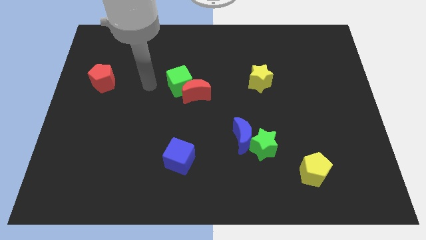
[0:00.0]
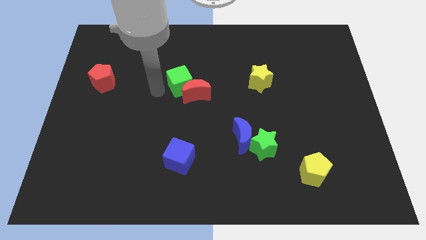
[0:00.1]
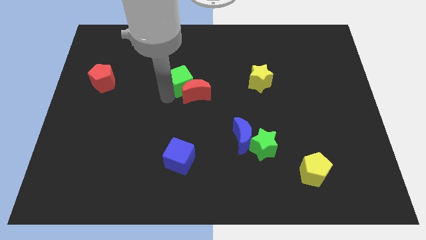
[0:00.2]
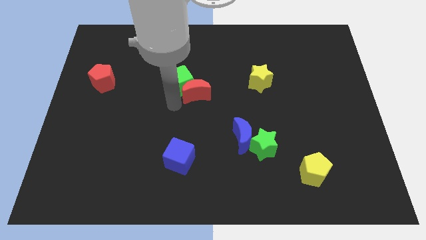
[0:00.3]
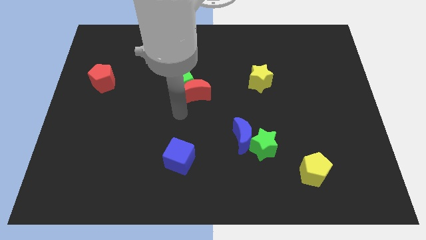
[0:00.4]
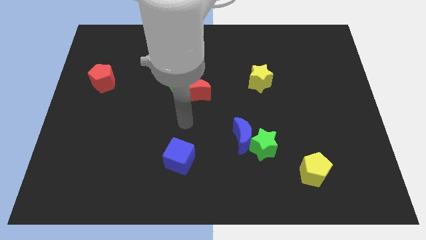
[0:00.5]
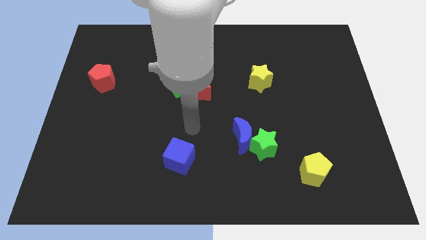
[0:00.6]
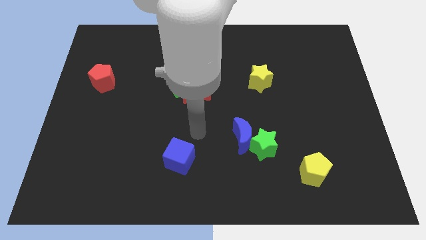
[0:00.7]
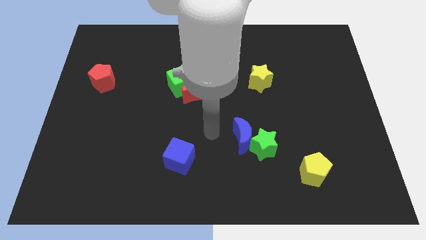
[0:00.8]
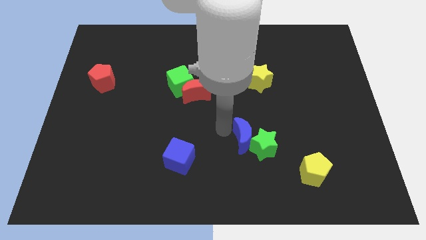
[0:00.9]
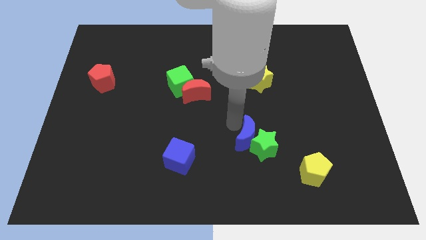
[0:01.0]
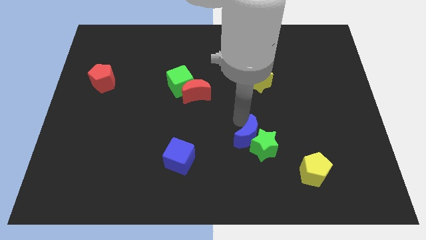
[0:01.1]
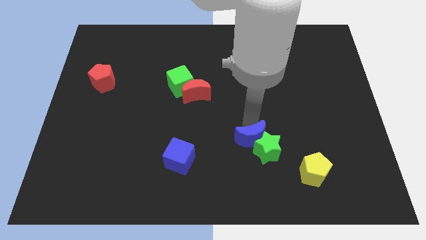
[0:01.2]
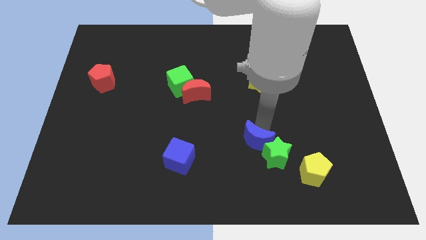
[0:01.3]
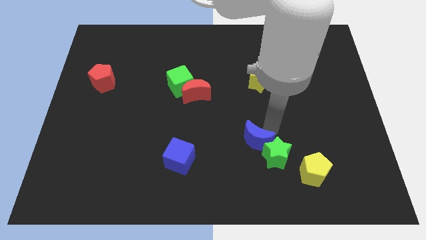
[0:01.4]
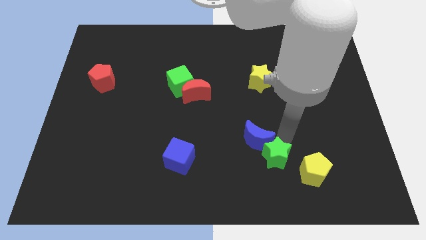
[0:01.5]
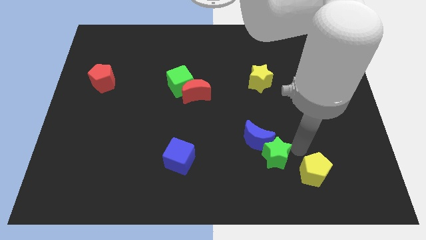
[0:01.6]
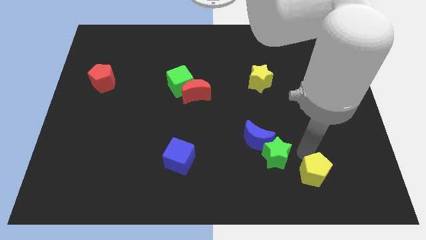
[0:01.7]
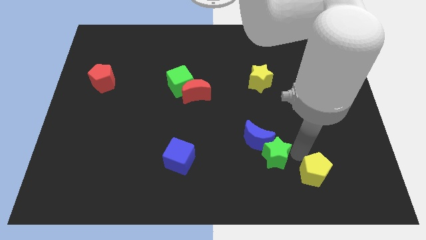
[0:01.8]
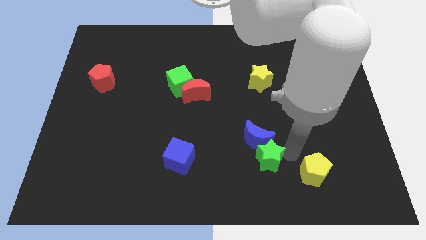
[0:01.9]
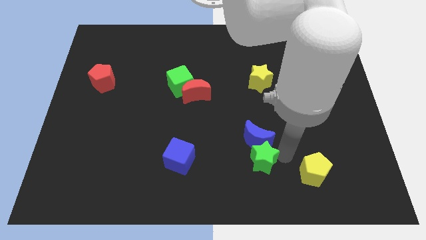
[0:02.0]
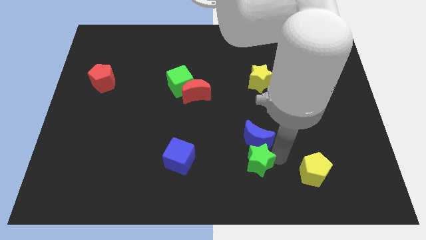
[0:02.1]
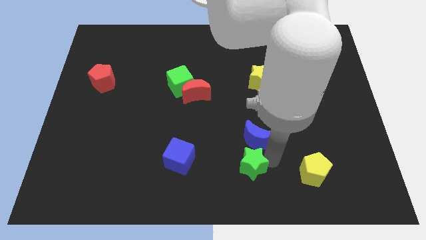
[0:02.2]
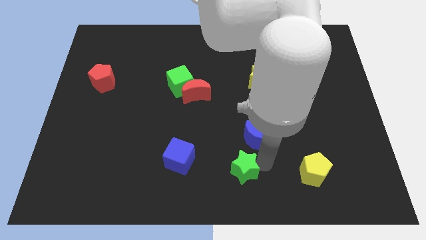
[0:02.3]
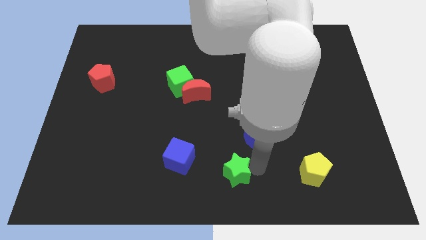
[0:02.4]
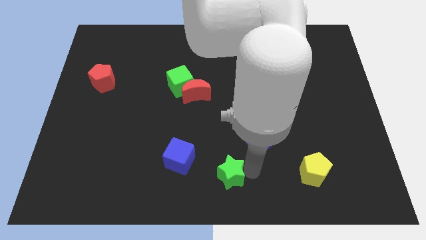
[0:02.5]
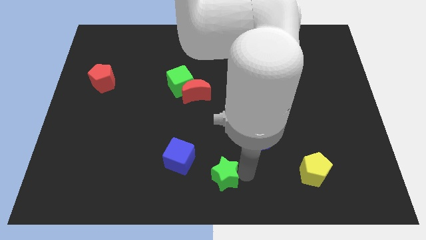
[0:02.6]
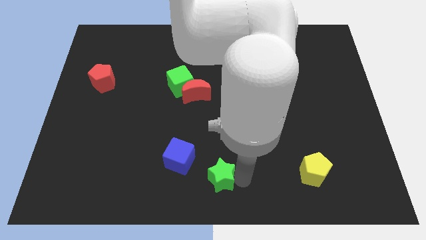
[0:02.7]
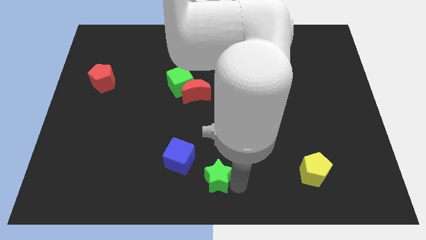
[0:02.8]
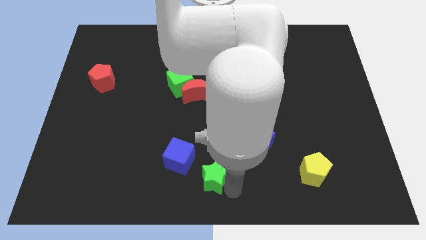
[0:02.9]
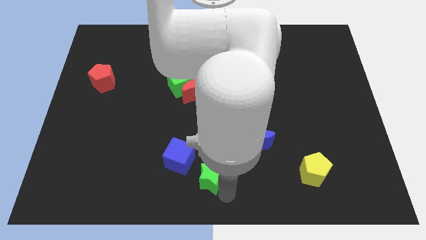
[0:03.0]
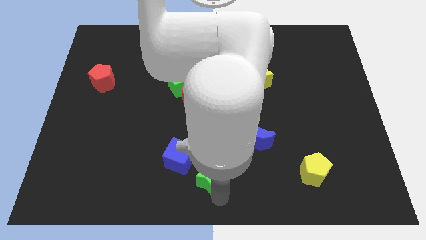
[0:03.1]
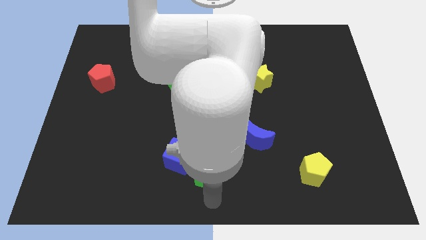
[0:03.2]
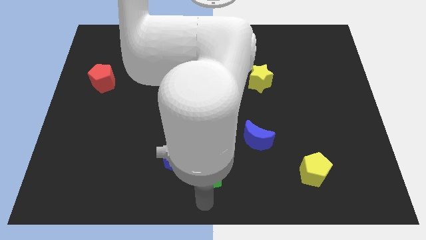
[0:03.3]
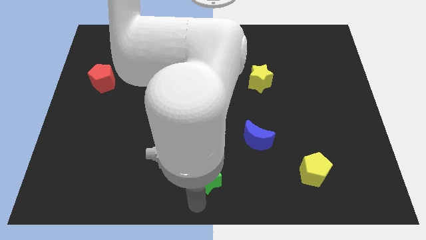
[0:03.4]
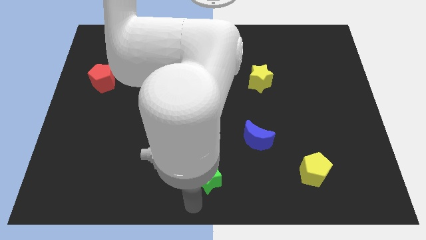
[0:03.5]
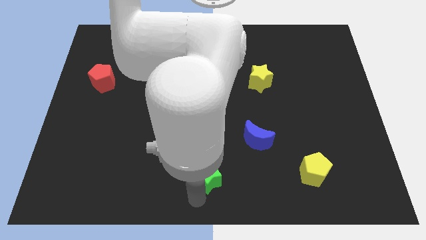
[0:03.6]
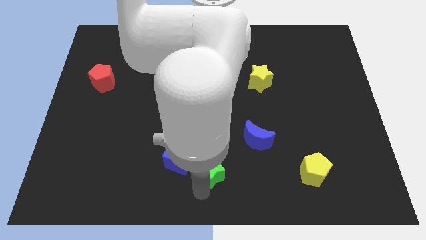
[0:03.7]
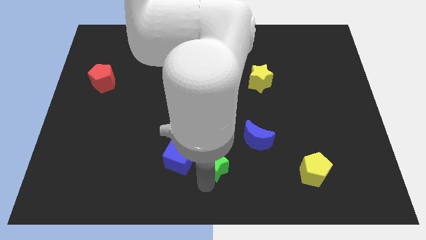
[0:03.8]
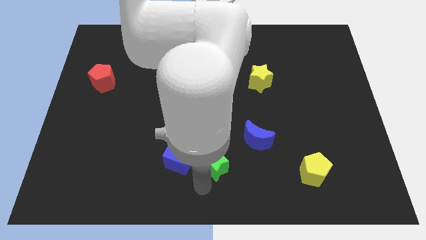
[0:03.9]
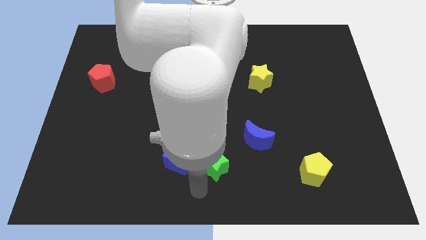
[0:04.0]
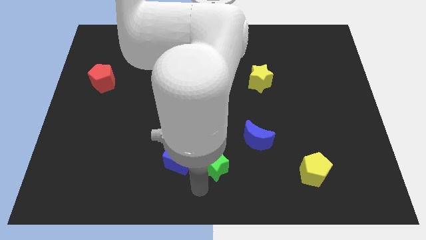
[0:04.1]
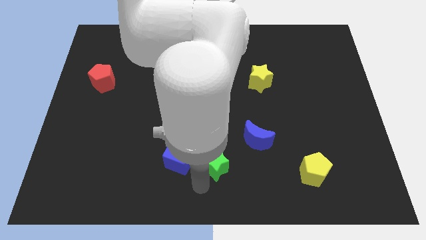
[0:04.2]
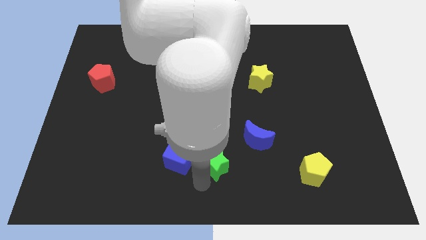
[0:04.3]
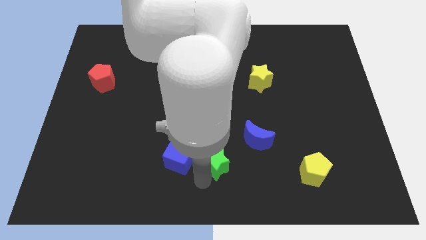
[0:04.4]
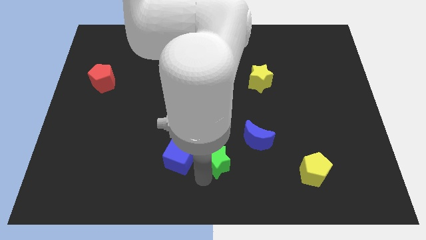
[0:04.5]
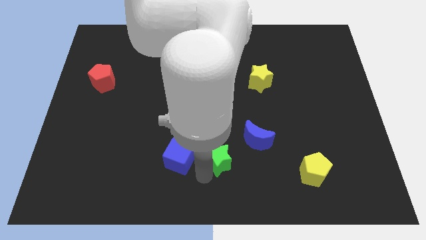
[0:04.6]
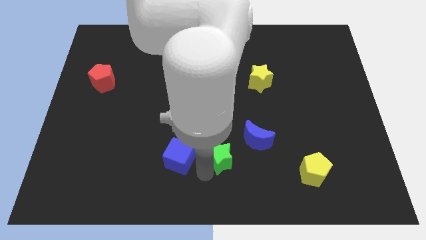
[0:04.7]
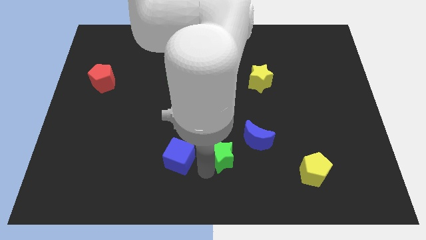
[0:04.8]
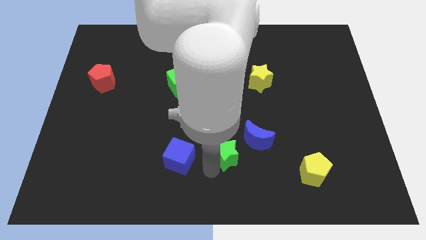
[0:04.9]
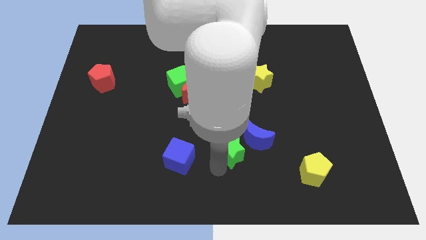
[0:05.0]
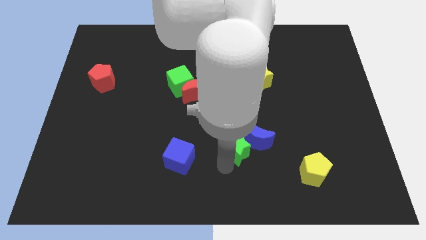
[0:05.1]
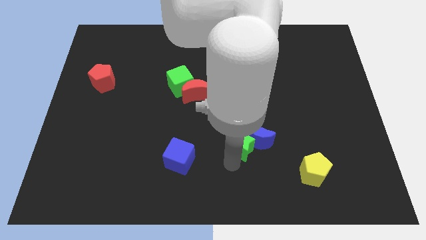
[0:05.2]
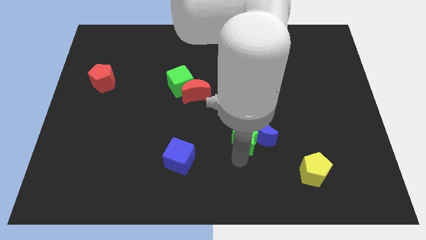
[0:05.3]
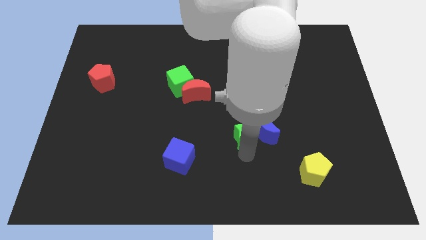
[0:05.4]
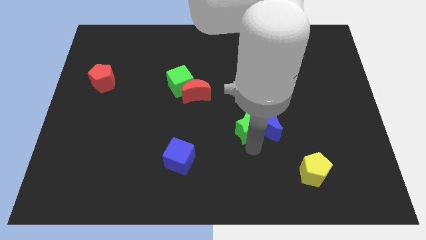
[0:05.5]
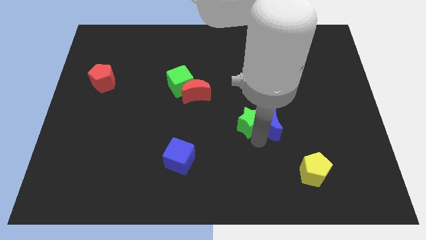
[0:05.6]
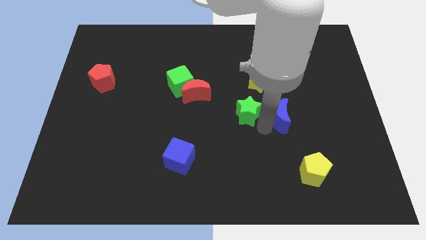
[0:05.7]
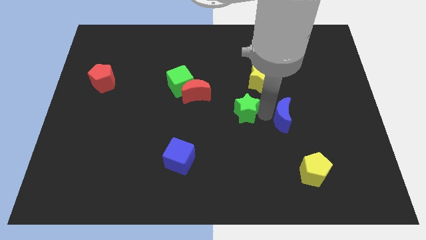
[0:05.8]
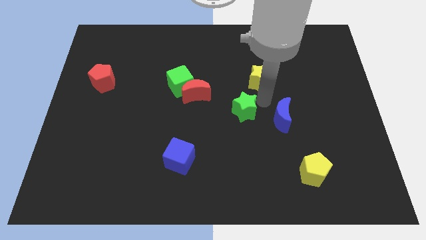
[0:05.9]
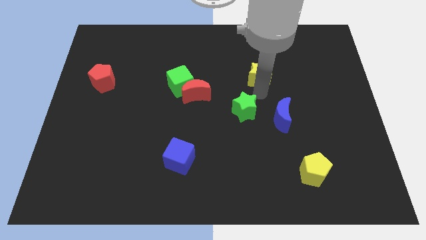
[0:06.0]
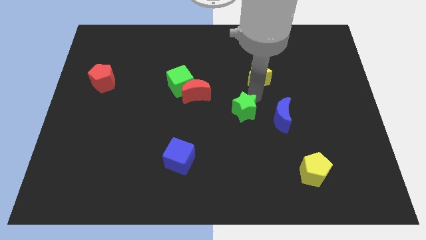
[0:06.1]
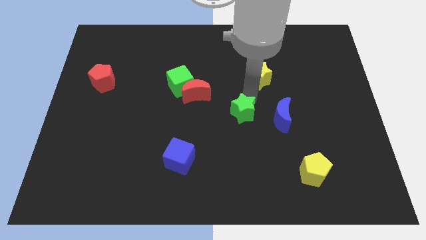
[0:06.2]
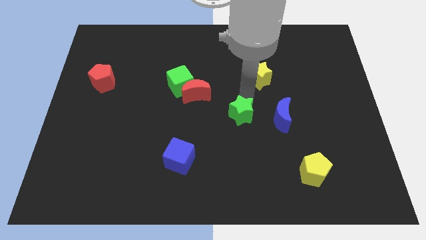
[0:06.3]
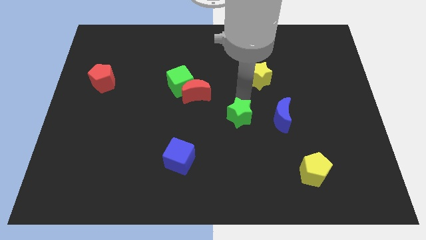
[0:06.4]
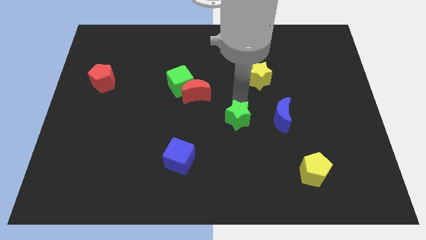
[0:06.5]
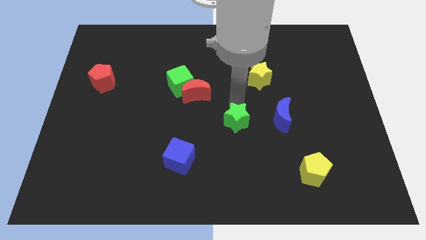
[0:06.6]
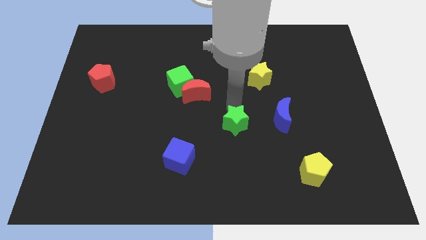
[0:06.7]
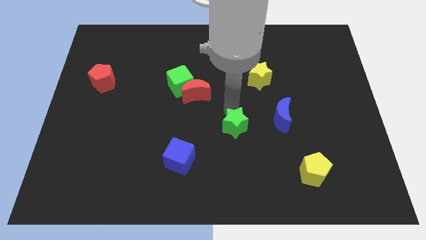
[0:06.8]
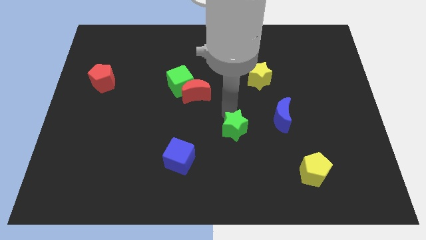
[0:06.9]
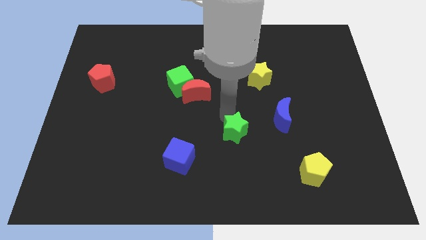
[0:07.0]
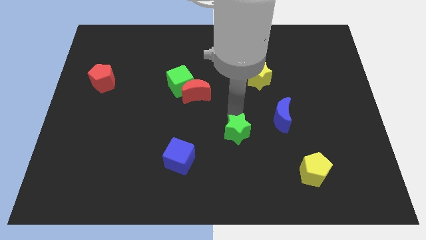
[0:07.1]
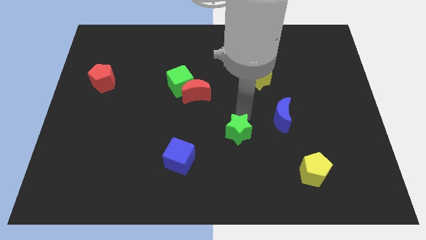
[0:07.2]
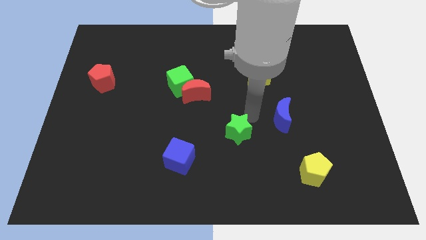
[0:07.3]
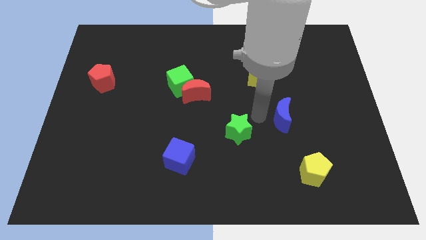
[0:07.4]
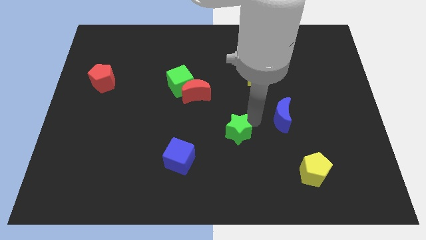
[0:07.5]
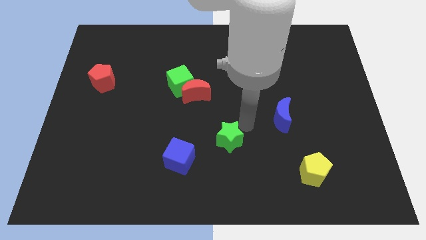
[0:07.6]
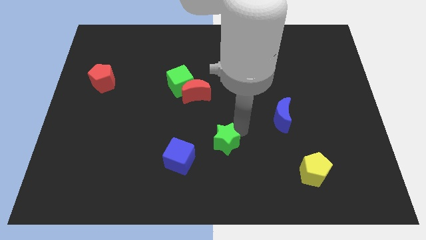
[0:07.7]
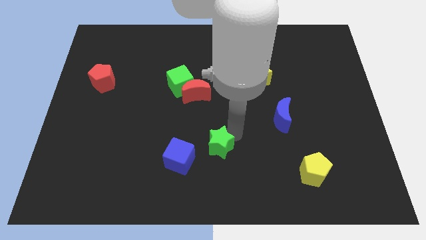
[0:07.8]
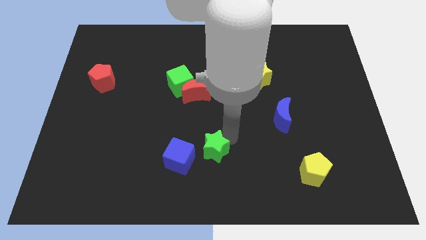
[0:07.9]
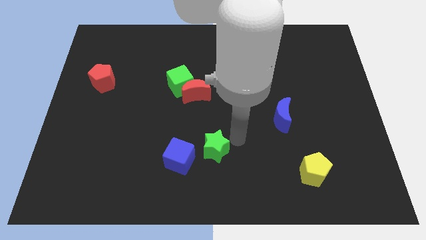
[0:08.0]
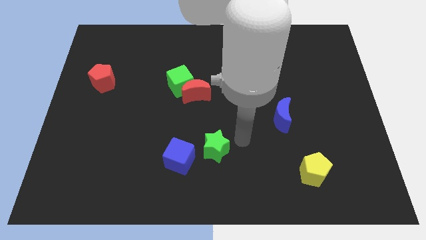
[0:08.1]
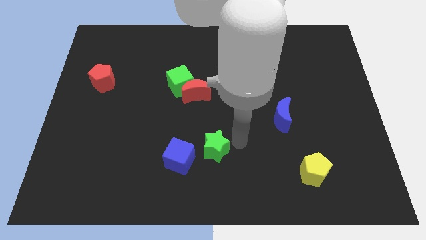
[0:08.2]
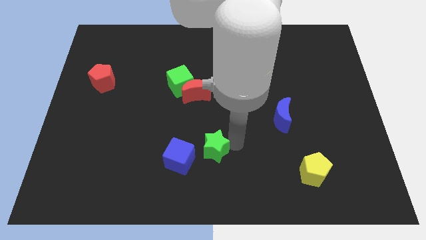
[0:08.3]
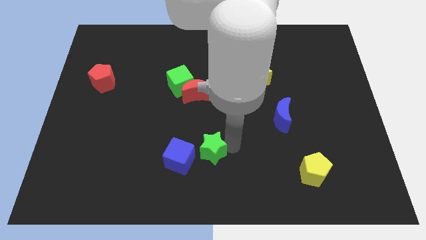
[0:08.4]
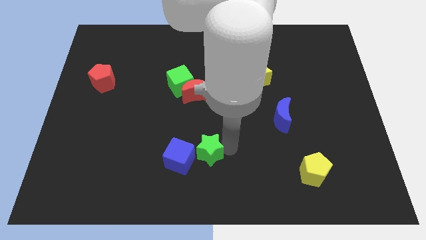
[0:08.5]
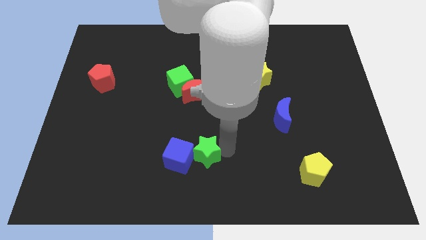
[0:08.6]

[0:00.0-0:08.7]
put the green star towards the blue cube
